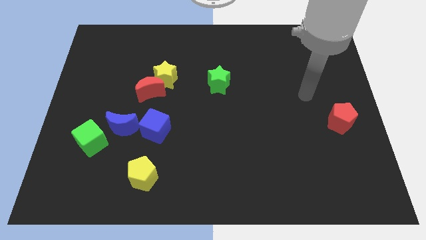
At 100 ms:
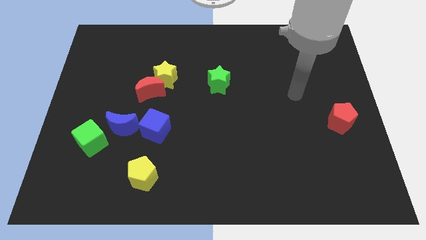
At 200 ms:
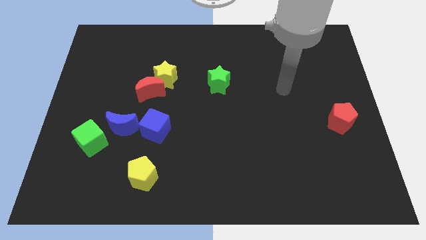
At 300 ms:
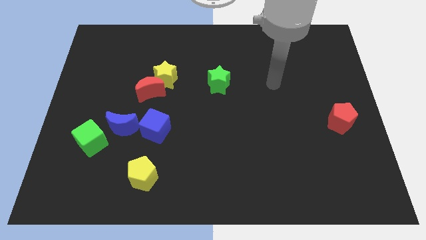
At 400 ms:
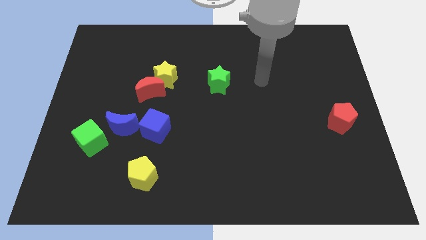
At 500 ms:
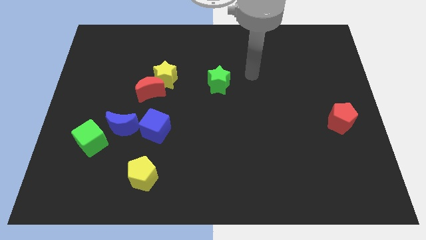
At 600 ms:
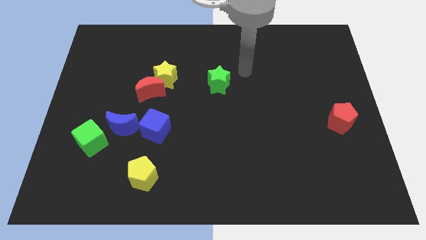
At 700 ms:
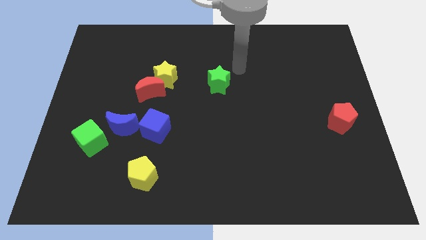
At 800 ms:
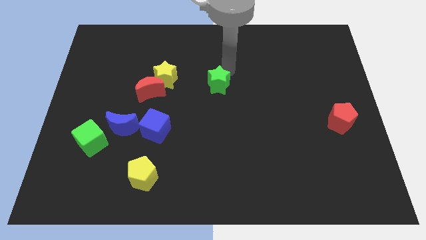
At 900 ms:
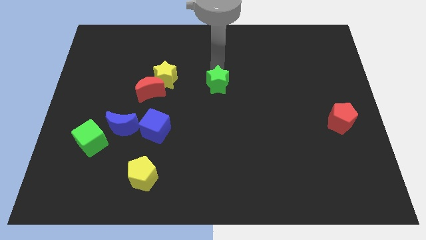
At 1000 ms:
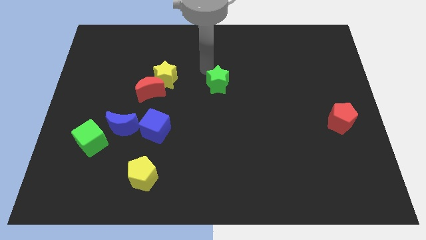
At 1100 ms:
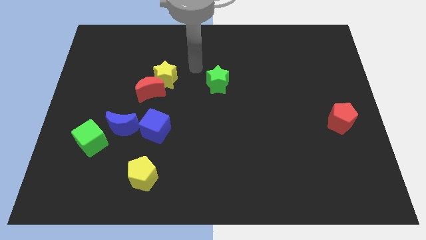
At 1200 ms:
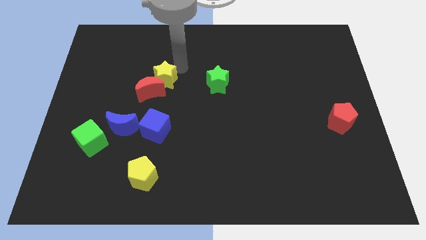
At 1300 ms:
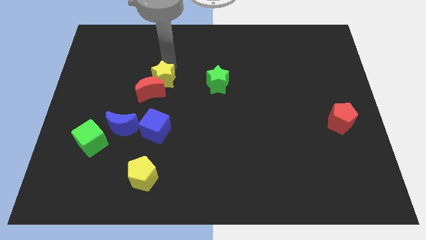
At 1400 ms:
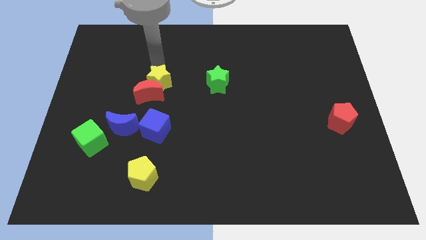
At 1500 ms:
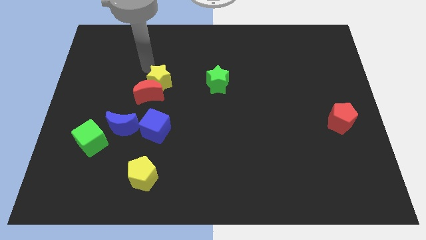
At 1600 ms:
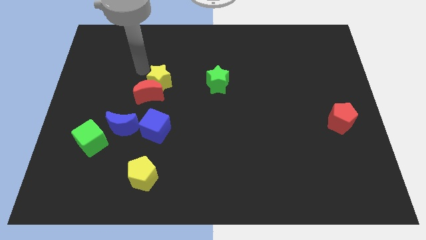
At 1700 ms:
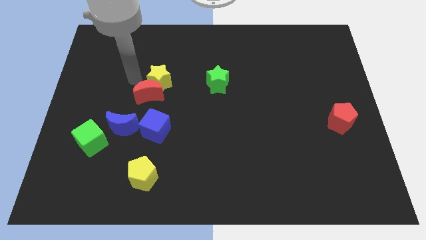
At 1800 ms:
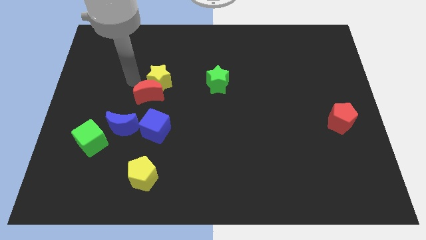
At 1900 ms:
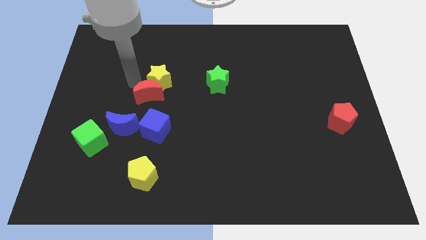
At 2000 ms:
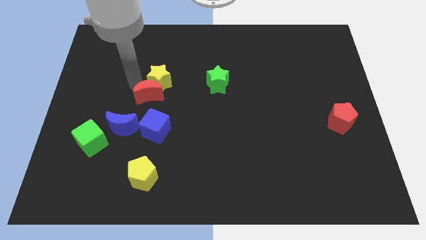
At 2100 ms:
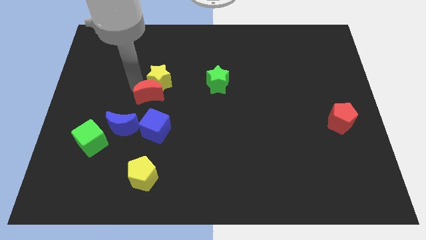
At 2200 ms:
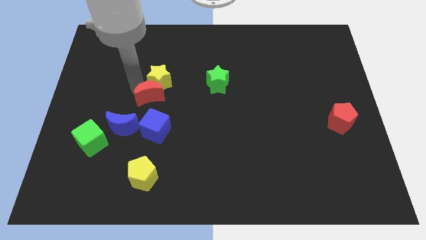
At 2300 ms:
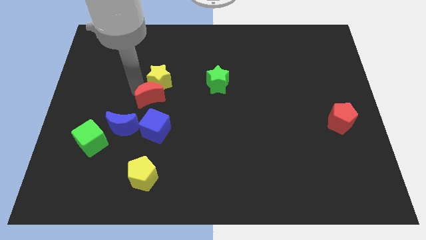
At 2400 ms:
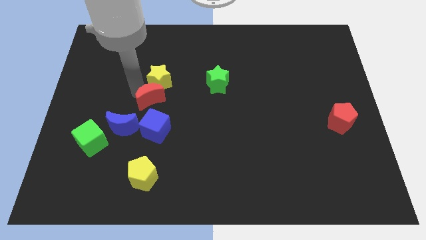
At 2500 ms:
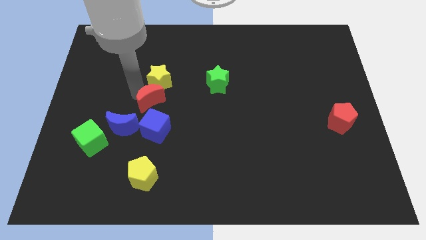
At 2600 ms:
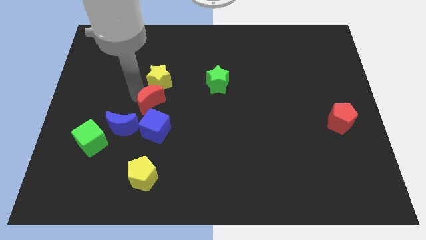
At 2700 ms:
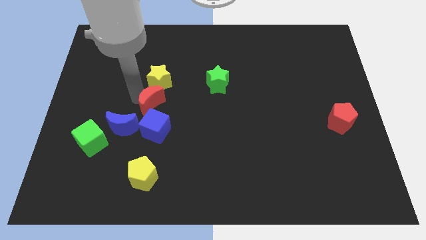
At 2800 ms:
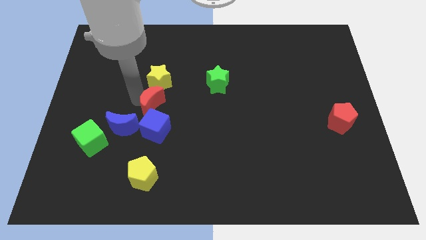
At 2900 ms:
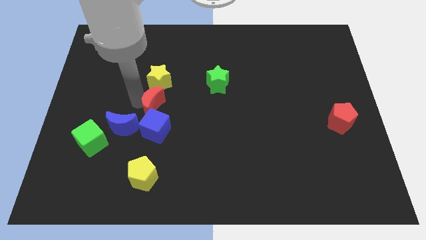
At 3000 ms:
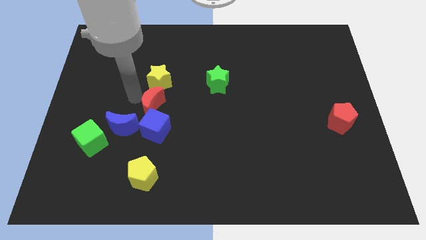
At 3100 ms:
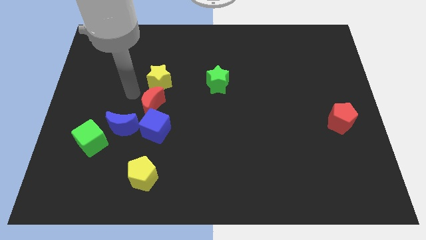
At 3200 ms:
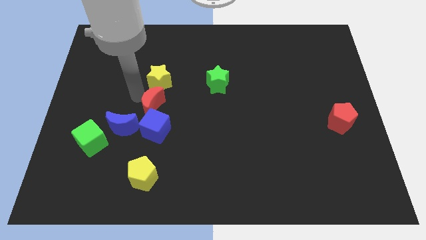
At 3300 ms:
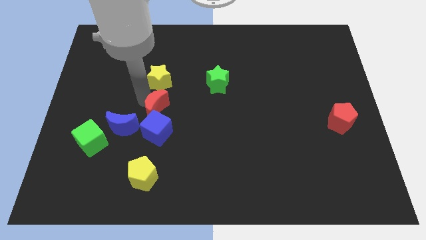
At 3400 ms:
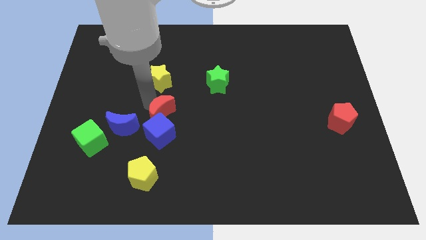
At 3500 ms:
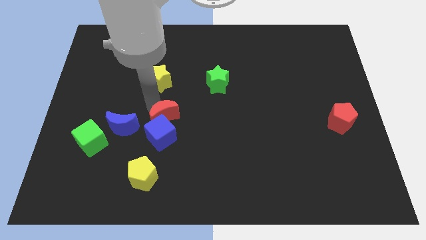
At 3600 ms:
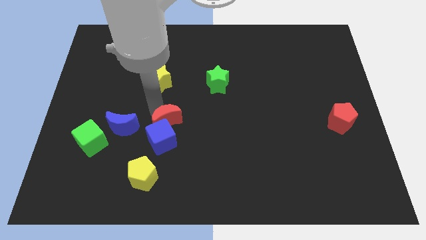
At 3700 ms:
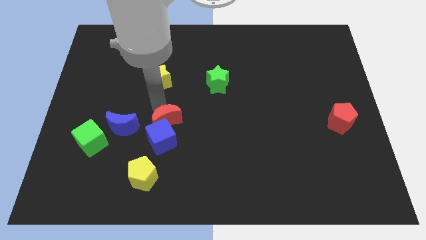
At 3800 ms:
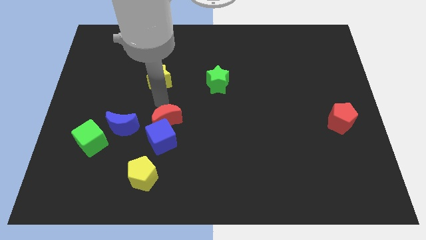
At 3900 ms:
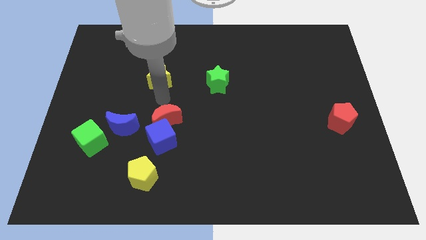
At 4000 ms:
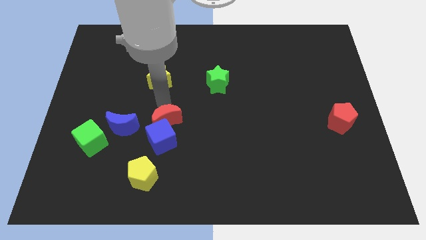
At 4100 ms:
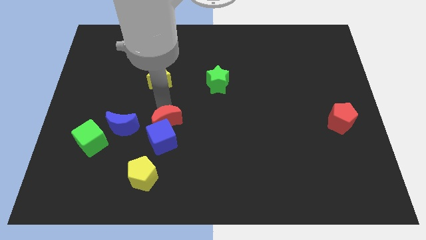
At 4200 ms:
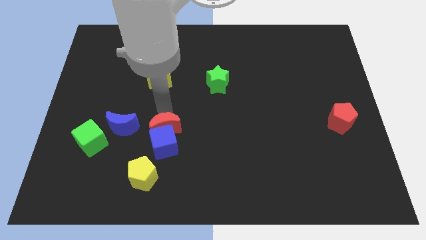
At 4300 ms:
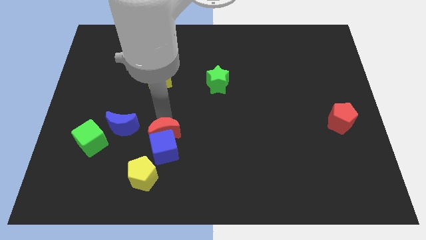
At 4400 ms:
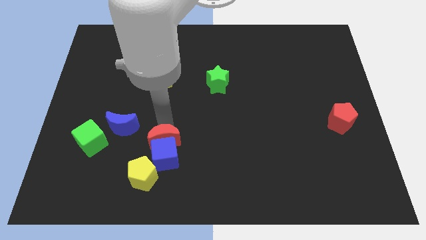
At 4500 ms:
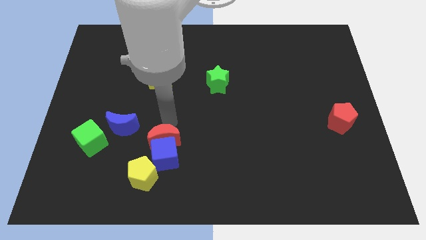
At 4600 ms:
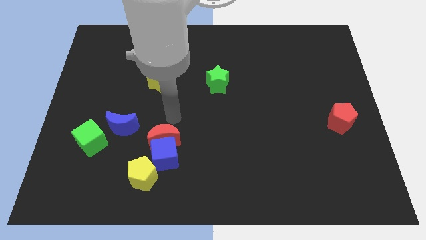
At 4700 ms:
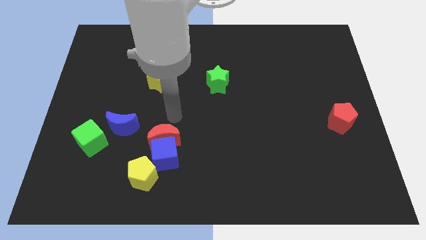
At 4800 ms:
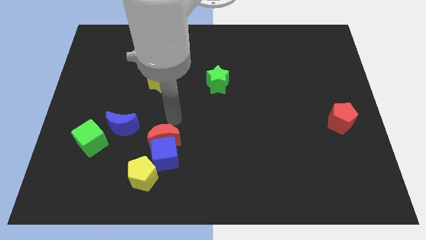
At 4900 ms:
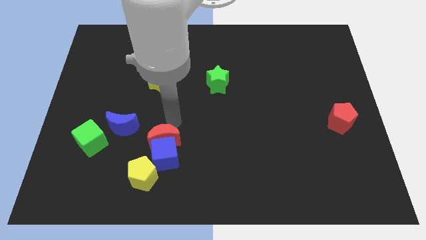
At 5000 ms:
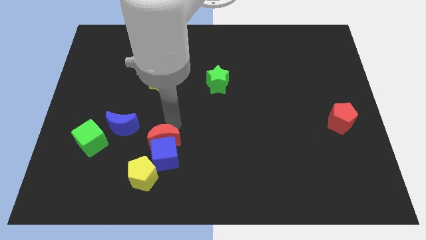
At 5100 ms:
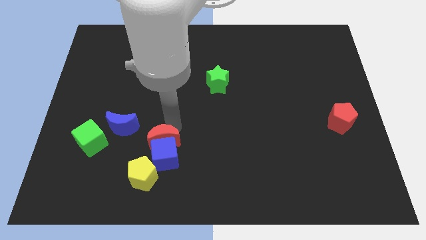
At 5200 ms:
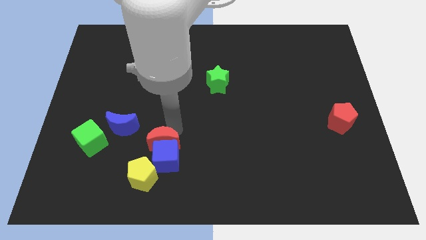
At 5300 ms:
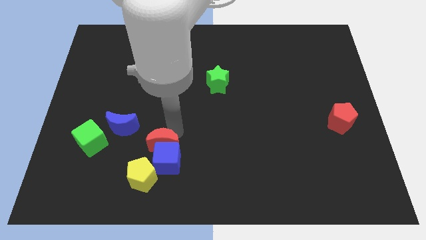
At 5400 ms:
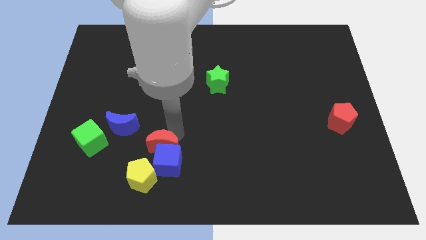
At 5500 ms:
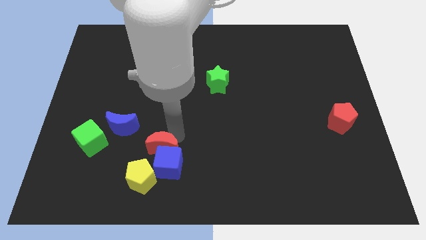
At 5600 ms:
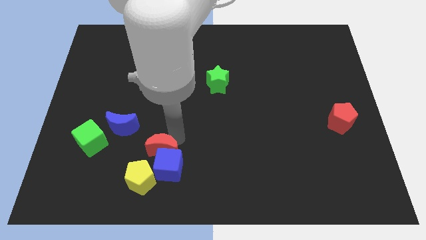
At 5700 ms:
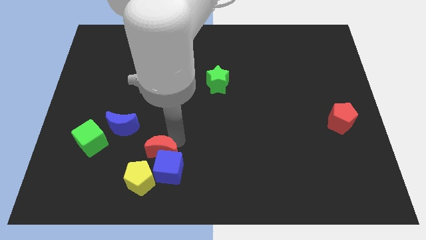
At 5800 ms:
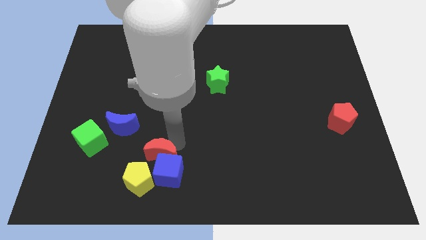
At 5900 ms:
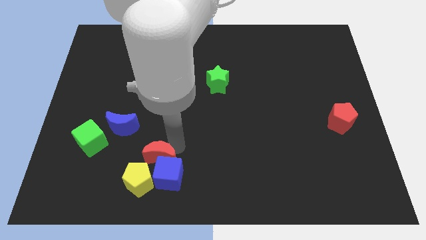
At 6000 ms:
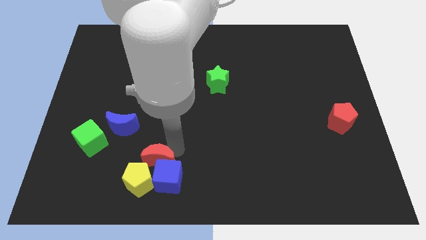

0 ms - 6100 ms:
put the red moon towards the yellow pentagon

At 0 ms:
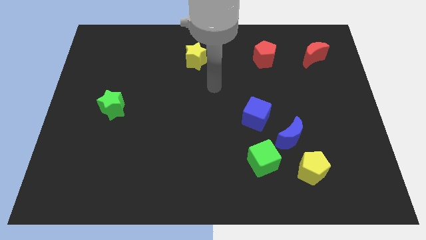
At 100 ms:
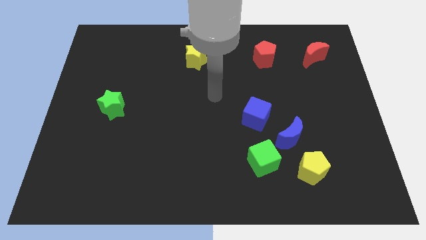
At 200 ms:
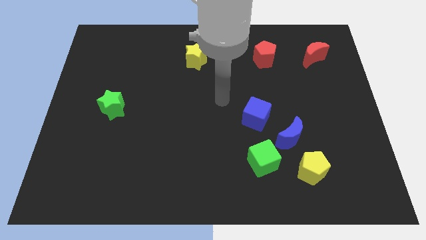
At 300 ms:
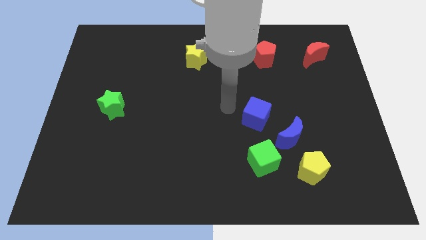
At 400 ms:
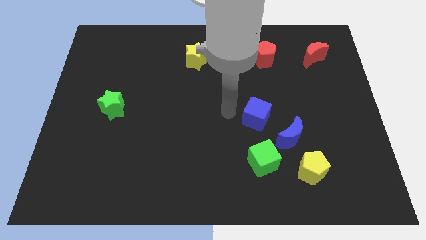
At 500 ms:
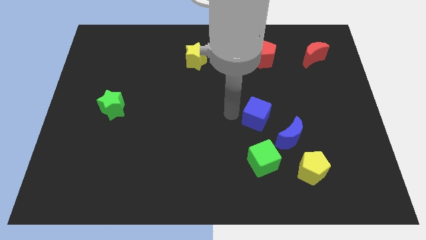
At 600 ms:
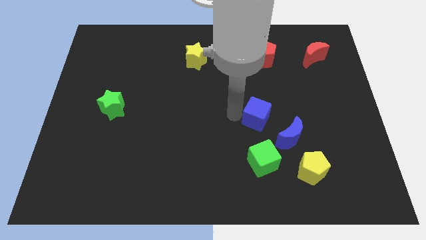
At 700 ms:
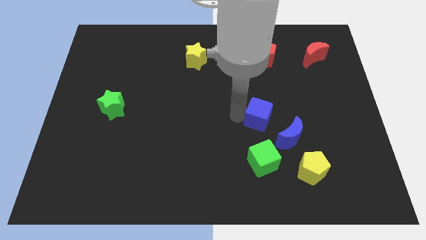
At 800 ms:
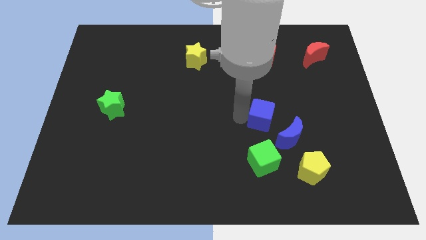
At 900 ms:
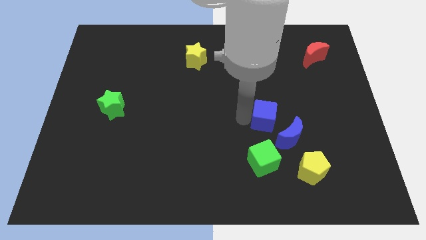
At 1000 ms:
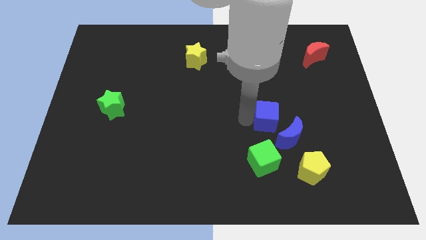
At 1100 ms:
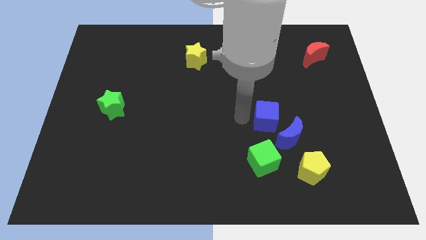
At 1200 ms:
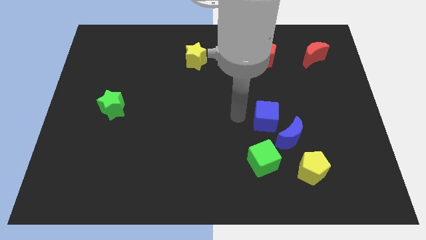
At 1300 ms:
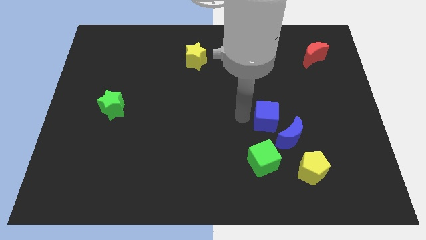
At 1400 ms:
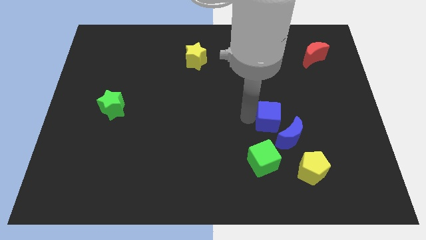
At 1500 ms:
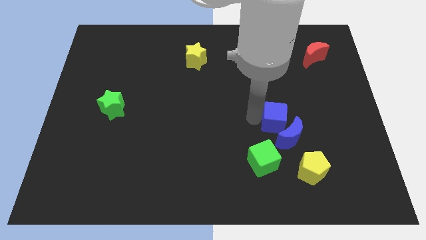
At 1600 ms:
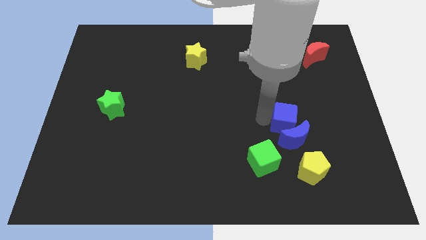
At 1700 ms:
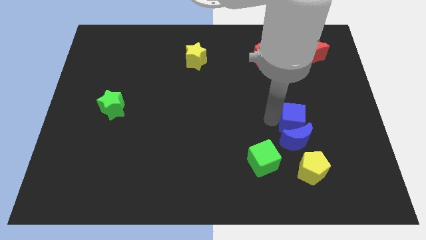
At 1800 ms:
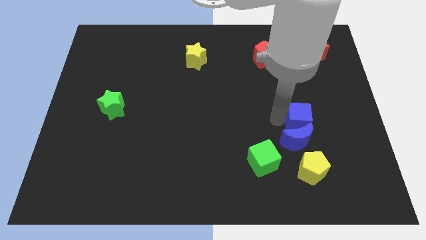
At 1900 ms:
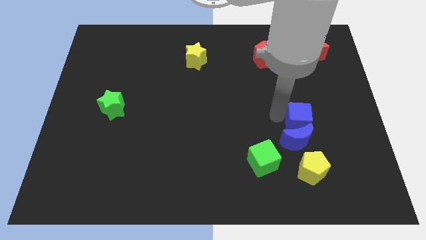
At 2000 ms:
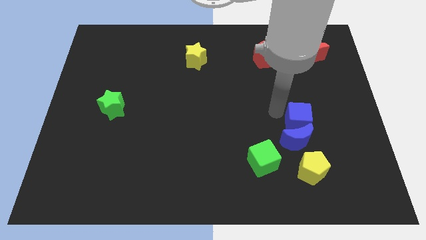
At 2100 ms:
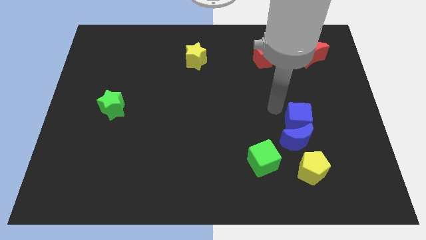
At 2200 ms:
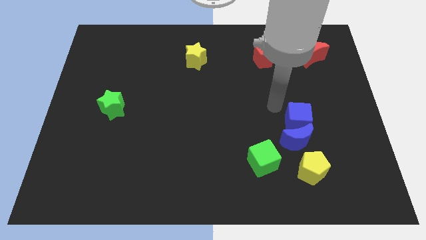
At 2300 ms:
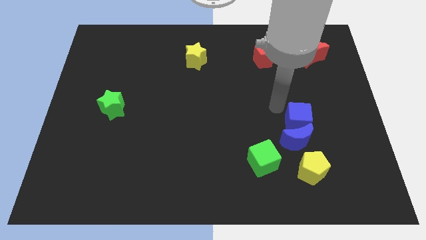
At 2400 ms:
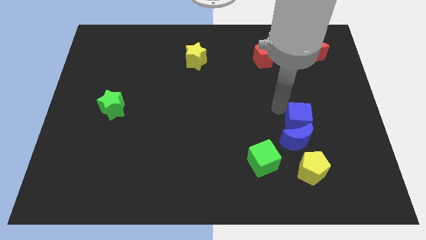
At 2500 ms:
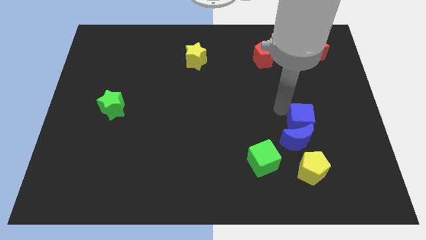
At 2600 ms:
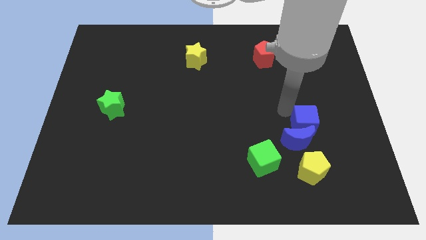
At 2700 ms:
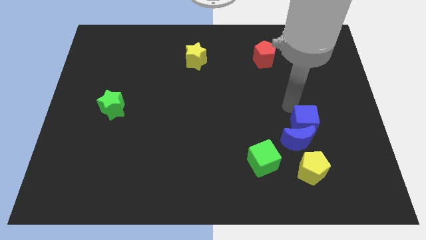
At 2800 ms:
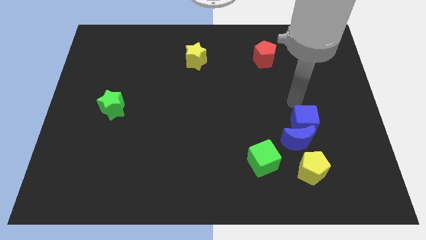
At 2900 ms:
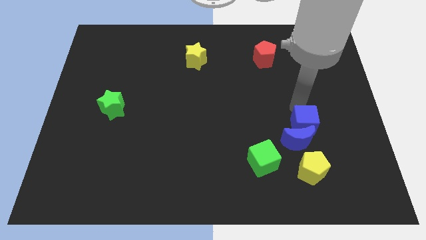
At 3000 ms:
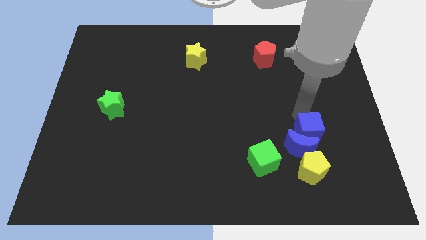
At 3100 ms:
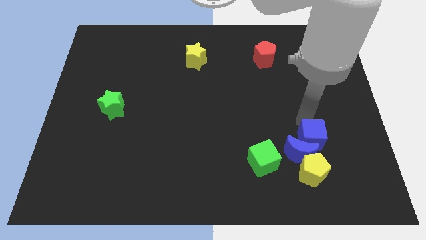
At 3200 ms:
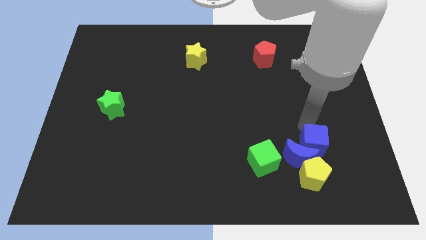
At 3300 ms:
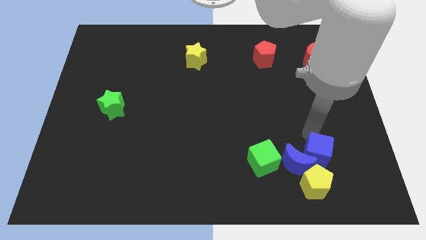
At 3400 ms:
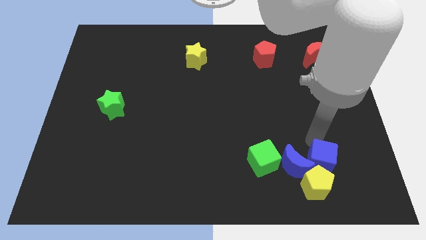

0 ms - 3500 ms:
push the blue cube close to the yellow pentagon
